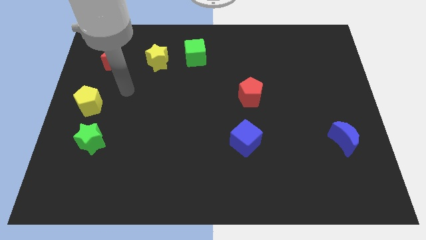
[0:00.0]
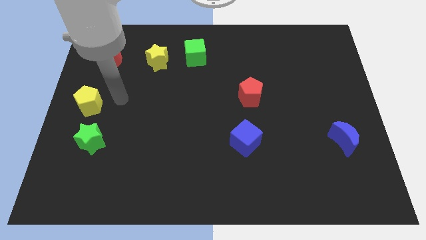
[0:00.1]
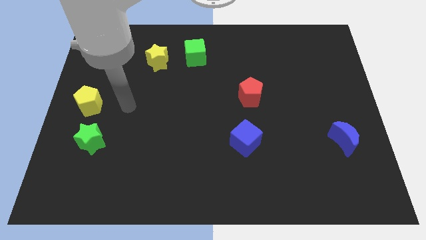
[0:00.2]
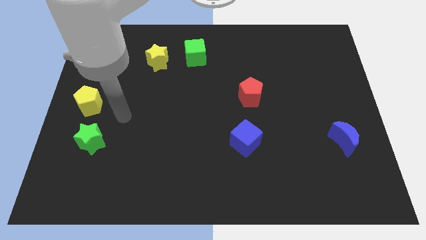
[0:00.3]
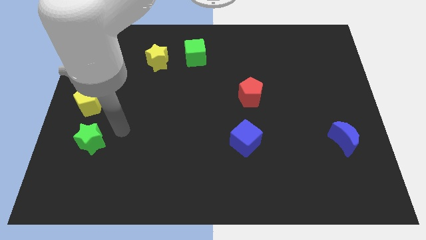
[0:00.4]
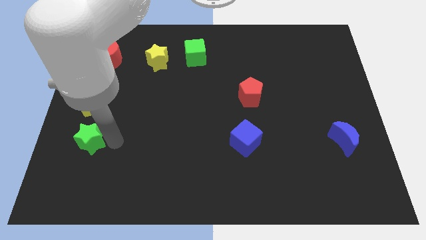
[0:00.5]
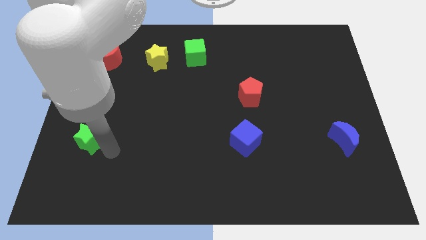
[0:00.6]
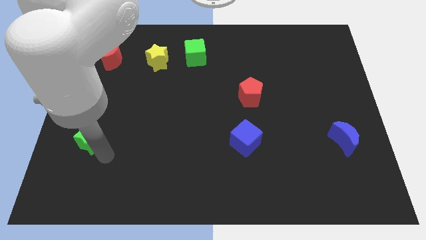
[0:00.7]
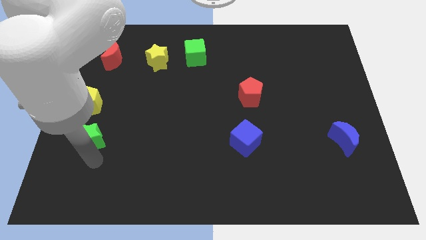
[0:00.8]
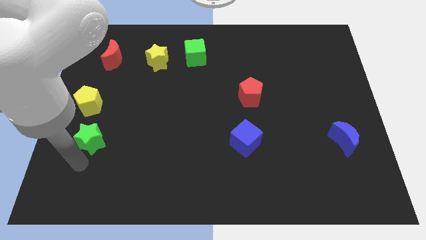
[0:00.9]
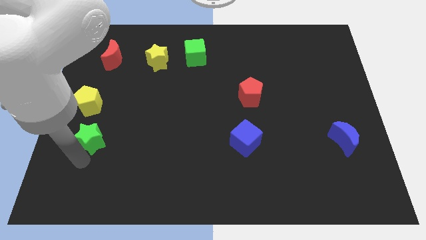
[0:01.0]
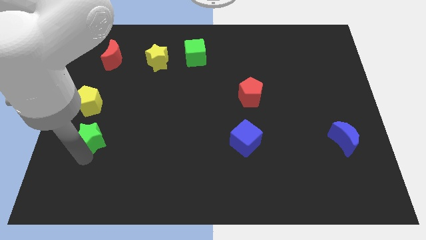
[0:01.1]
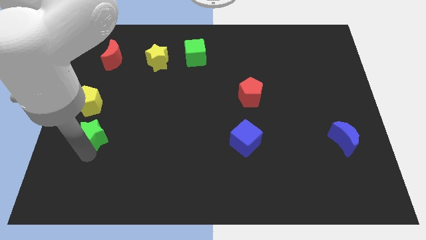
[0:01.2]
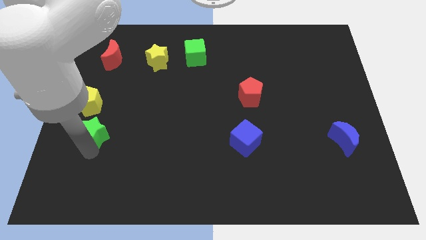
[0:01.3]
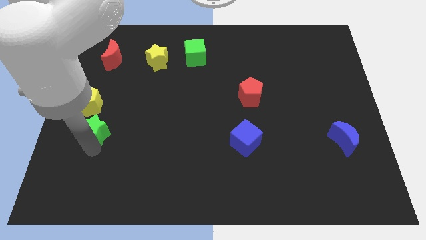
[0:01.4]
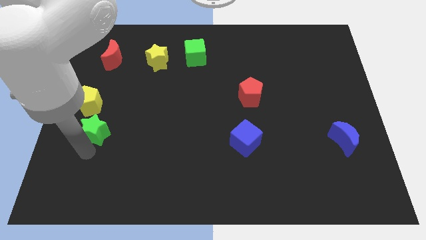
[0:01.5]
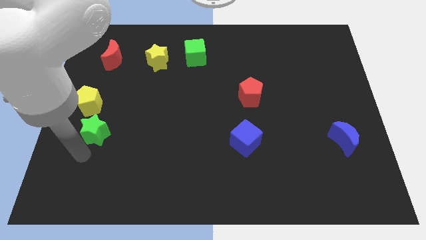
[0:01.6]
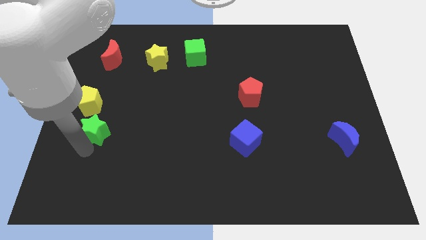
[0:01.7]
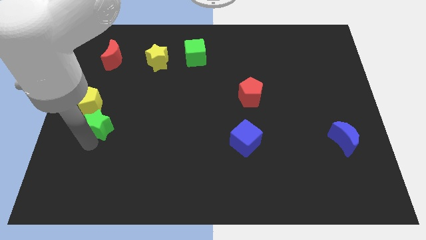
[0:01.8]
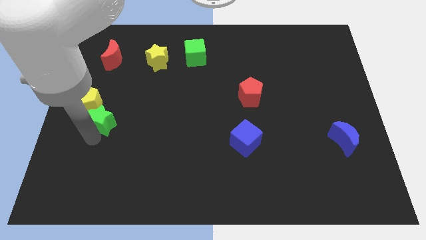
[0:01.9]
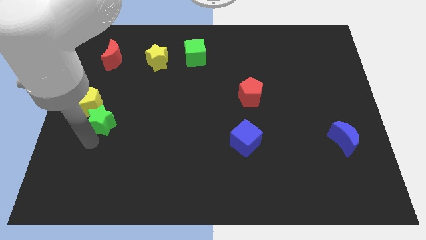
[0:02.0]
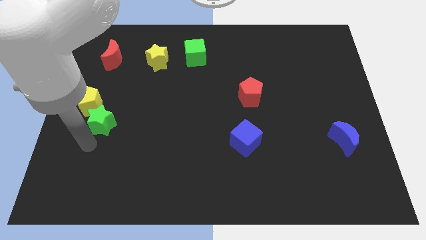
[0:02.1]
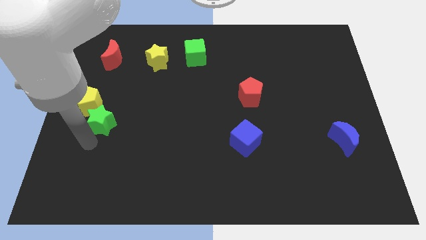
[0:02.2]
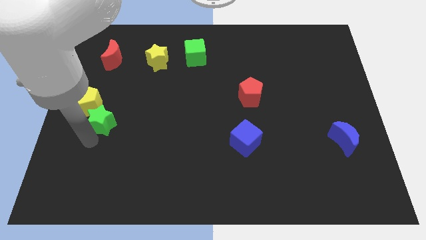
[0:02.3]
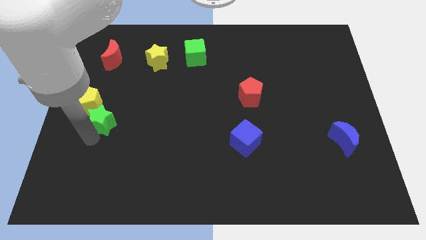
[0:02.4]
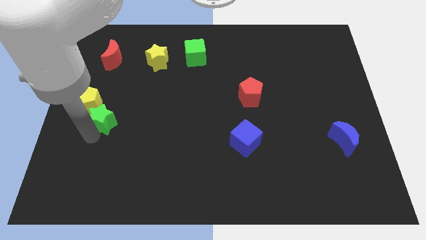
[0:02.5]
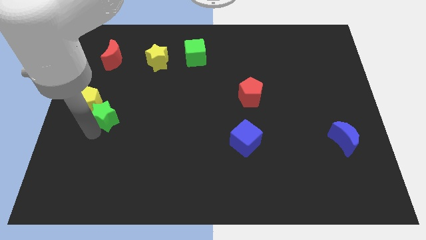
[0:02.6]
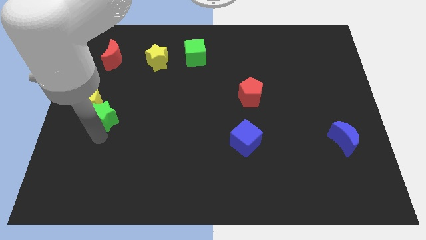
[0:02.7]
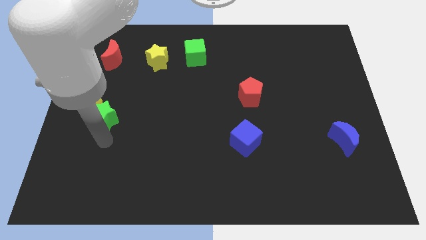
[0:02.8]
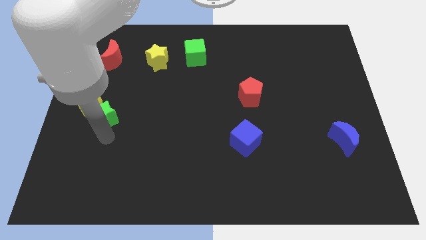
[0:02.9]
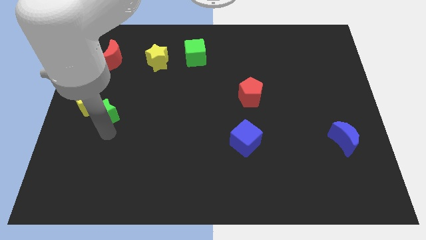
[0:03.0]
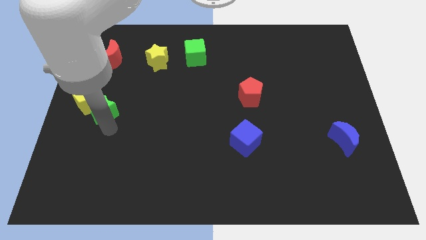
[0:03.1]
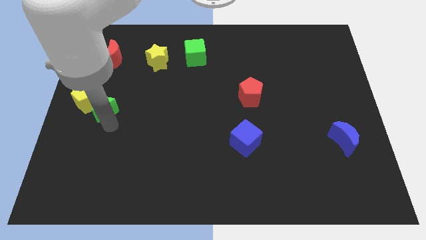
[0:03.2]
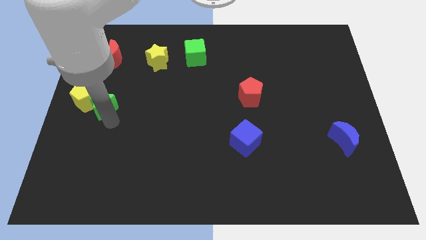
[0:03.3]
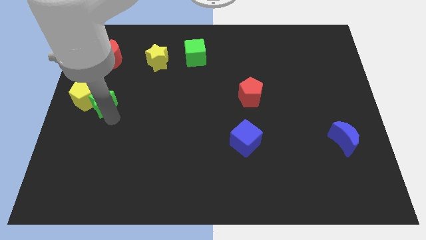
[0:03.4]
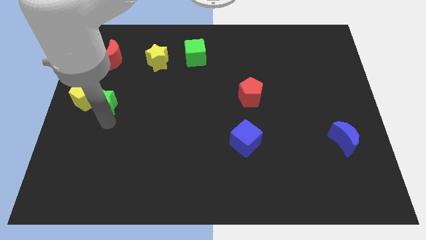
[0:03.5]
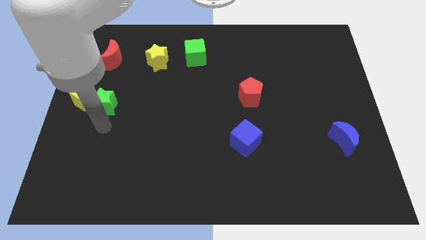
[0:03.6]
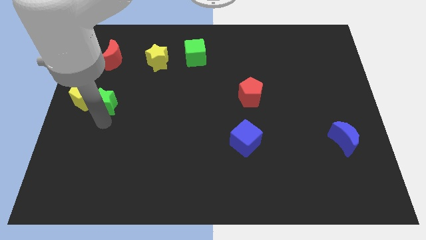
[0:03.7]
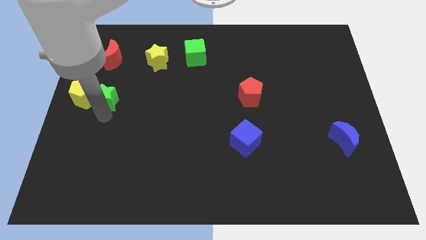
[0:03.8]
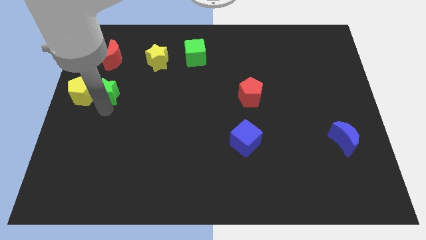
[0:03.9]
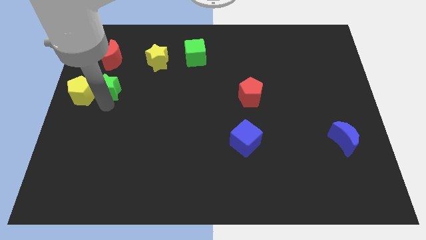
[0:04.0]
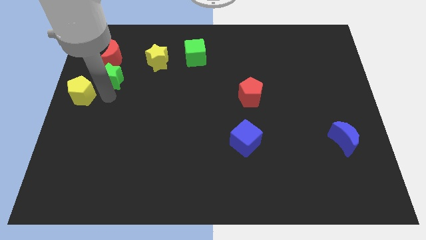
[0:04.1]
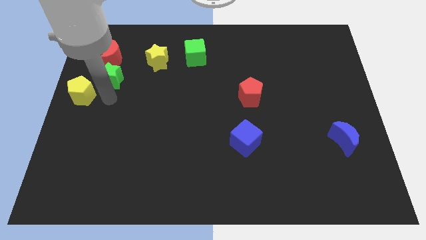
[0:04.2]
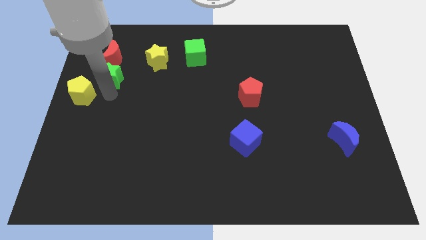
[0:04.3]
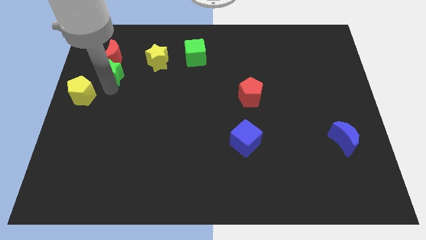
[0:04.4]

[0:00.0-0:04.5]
move the green star towards the red moon

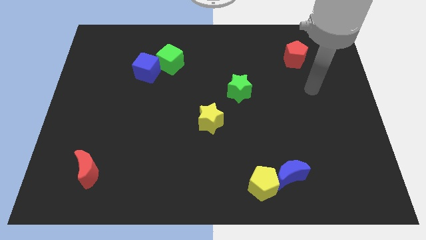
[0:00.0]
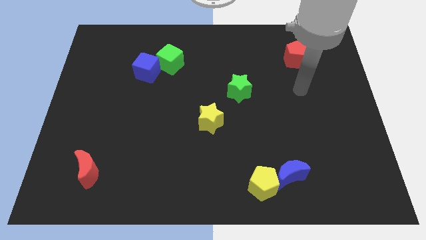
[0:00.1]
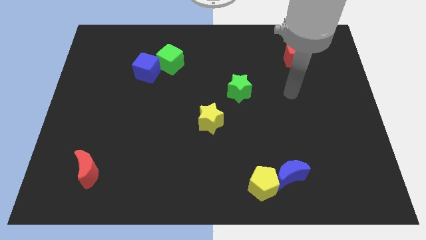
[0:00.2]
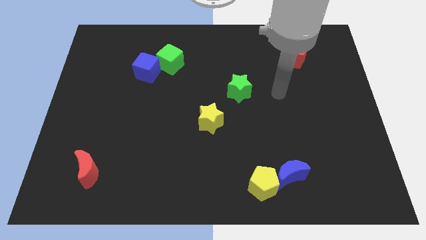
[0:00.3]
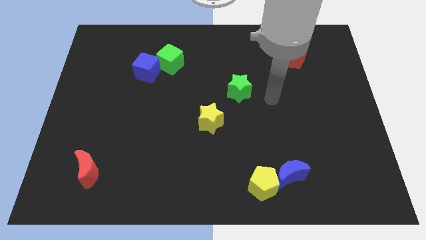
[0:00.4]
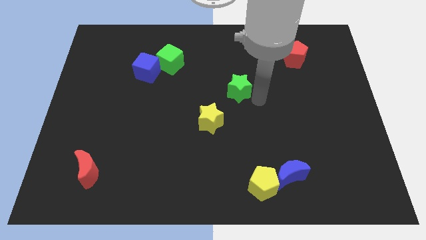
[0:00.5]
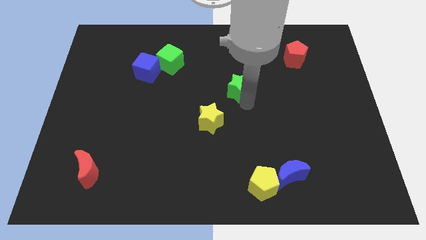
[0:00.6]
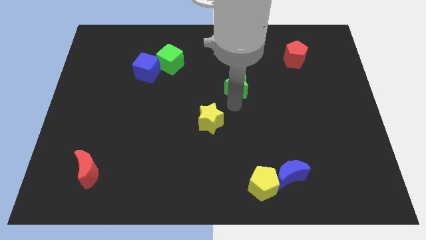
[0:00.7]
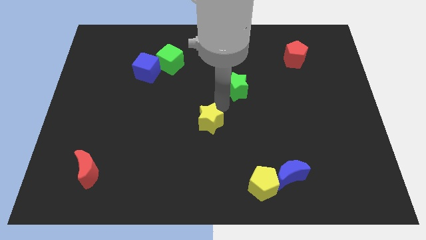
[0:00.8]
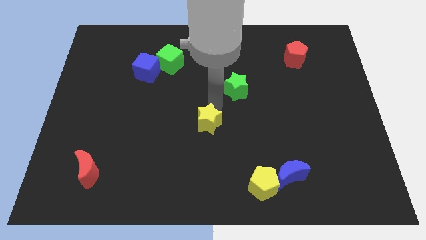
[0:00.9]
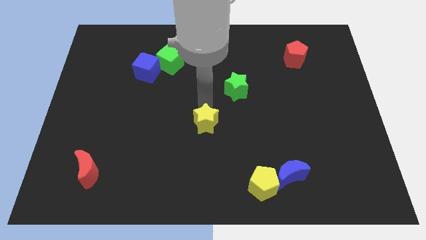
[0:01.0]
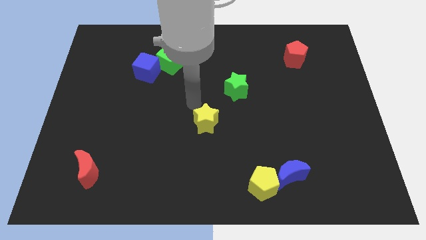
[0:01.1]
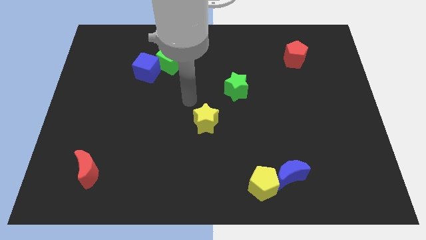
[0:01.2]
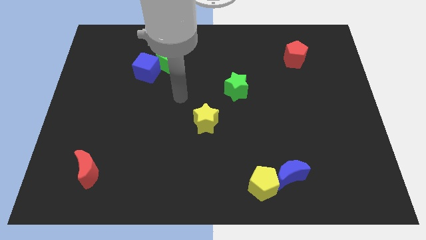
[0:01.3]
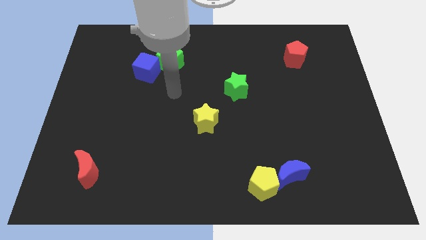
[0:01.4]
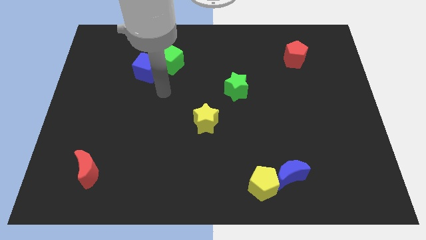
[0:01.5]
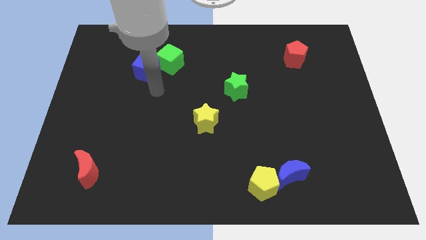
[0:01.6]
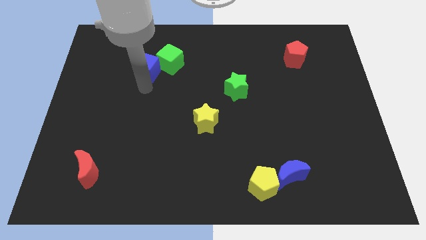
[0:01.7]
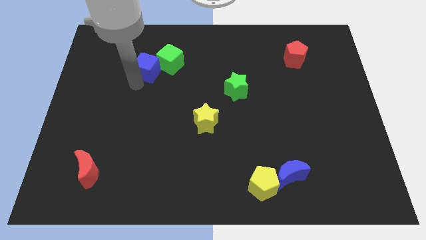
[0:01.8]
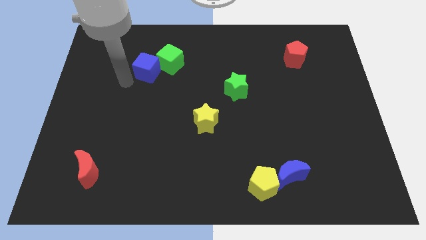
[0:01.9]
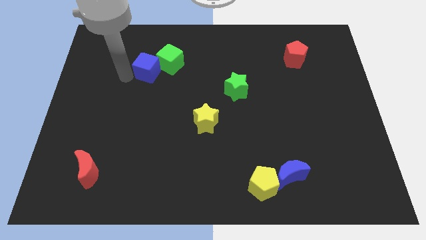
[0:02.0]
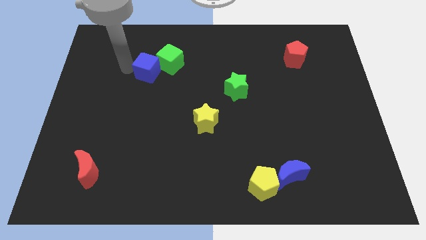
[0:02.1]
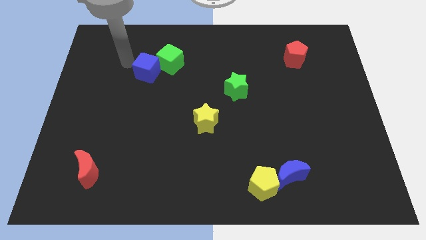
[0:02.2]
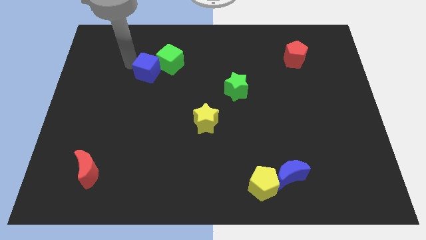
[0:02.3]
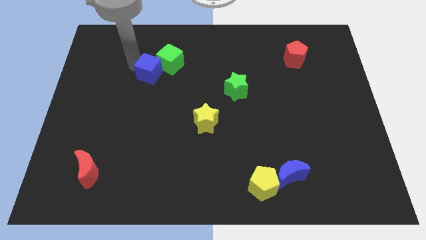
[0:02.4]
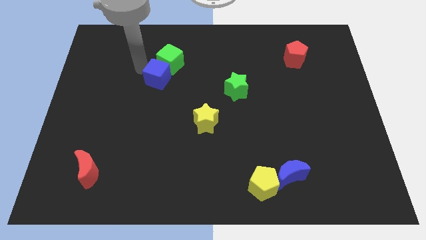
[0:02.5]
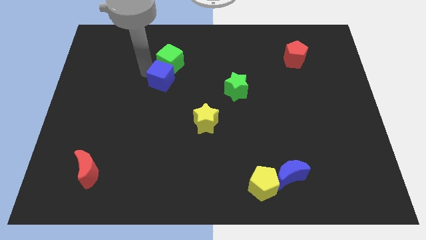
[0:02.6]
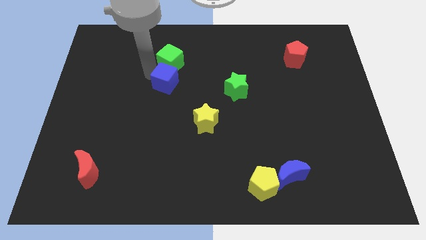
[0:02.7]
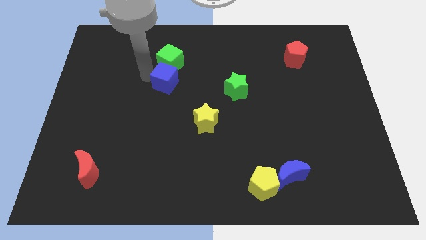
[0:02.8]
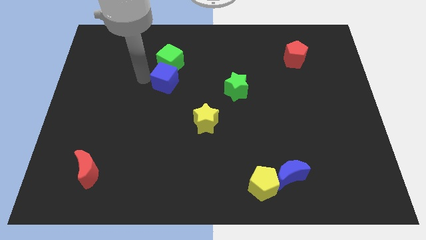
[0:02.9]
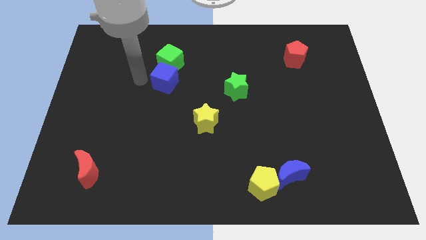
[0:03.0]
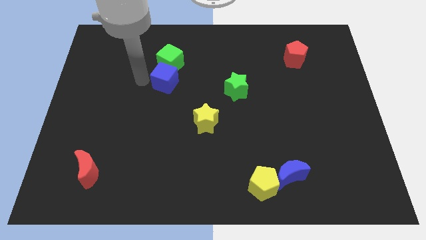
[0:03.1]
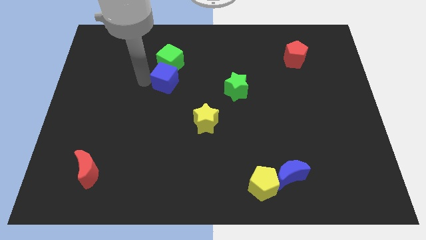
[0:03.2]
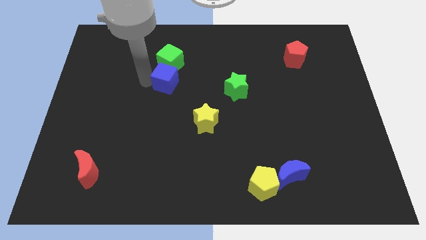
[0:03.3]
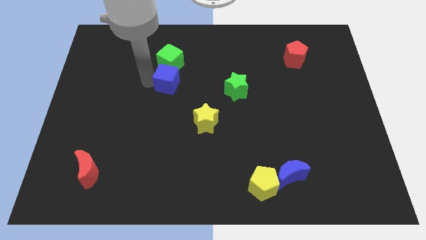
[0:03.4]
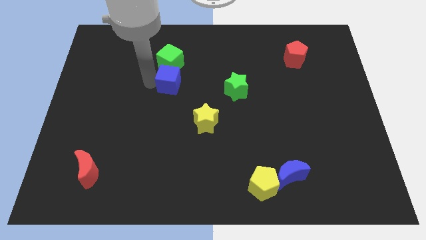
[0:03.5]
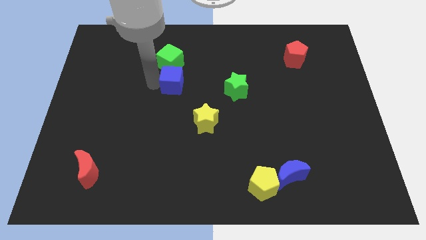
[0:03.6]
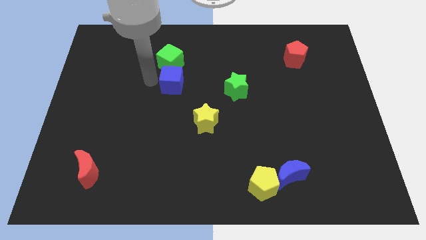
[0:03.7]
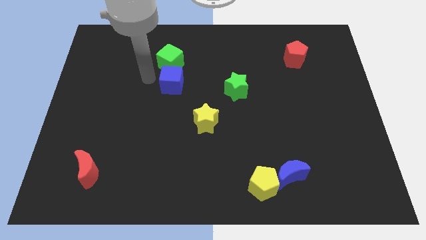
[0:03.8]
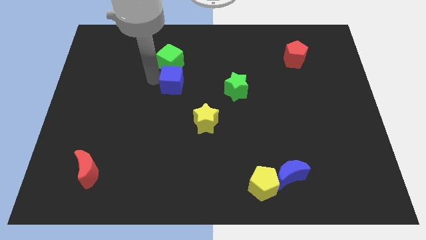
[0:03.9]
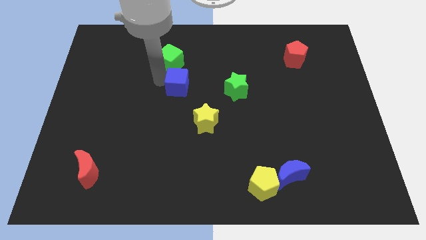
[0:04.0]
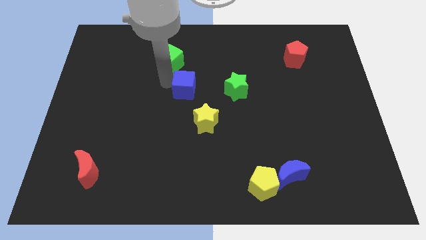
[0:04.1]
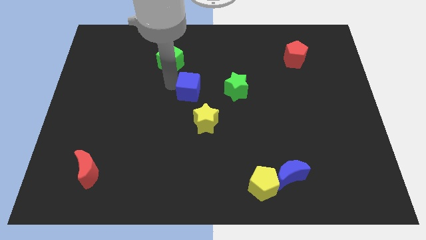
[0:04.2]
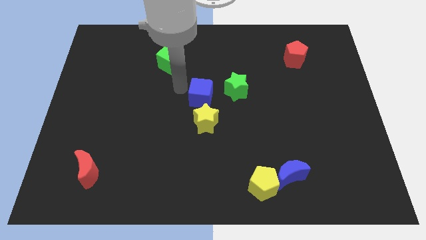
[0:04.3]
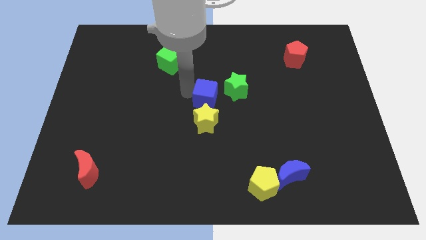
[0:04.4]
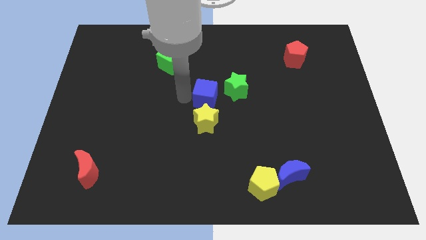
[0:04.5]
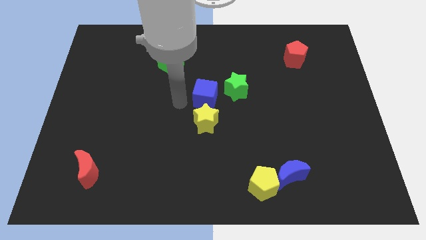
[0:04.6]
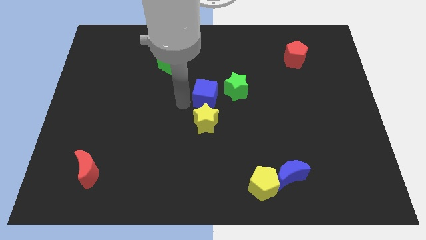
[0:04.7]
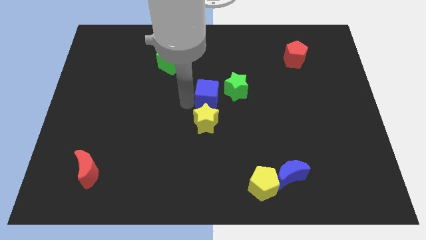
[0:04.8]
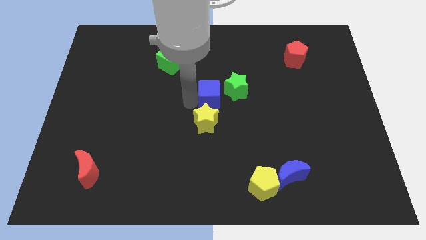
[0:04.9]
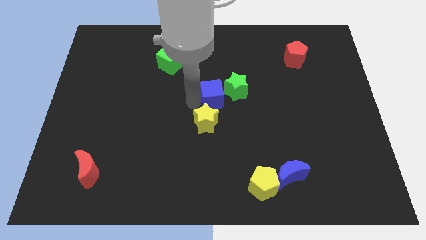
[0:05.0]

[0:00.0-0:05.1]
put the blue cube to the green star
